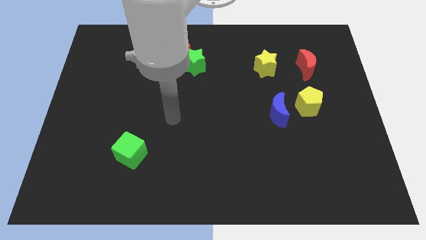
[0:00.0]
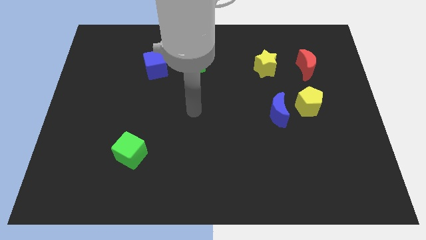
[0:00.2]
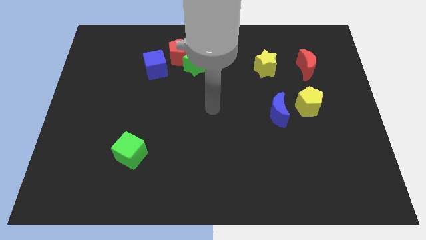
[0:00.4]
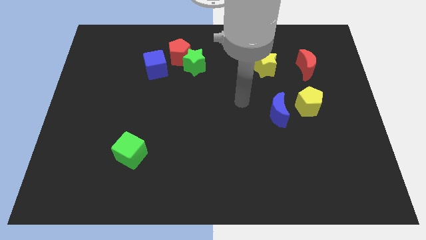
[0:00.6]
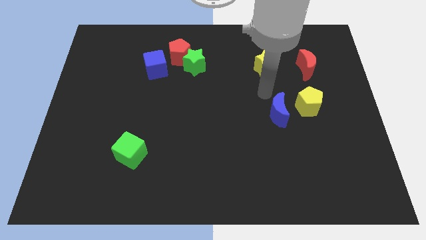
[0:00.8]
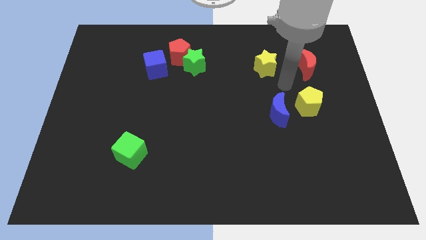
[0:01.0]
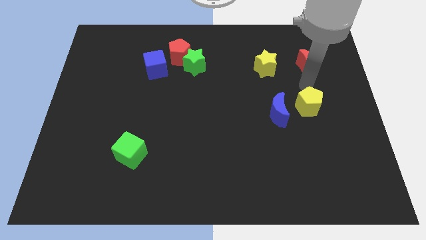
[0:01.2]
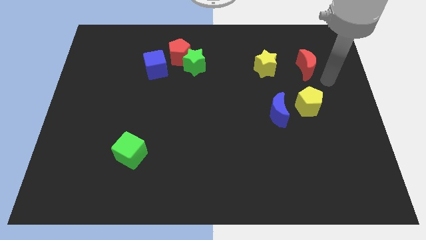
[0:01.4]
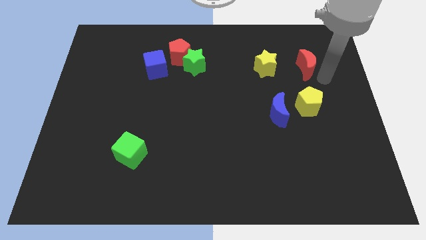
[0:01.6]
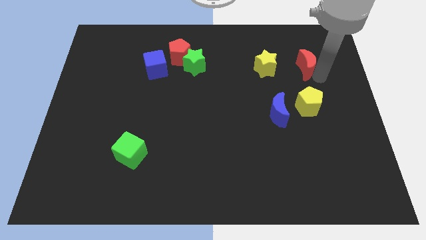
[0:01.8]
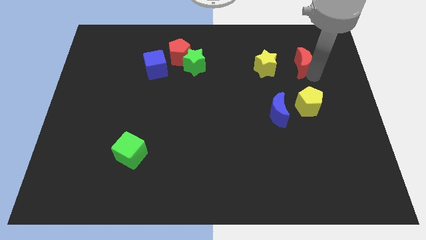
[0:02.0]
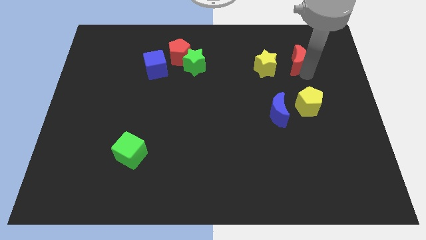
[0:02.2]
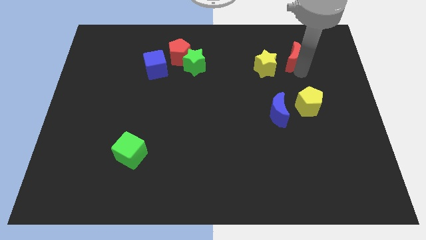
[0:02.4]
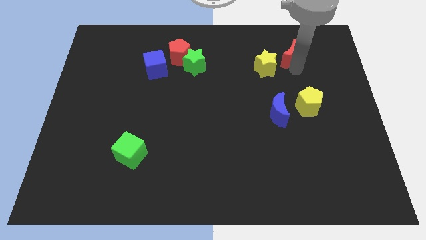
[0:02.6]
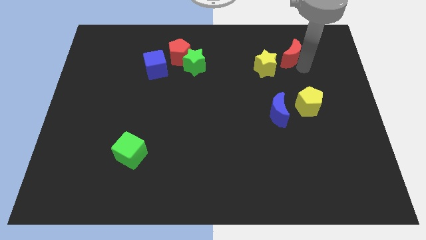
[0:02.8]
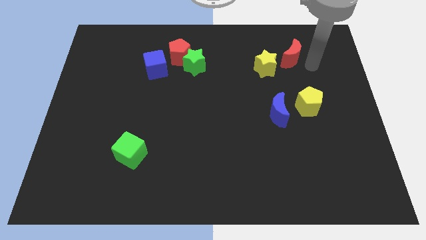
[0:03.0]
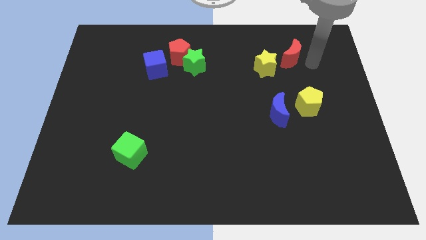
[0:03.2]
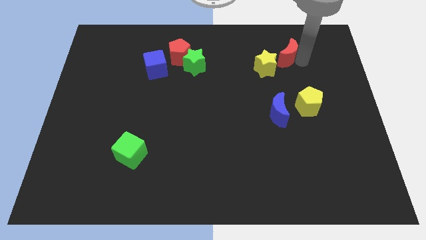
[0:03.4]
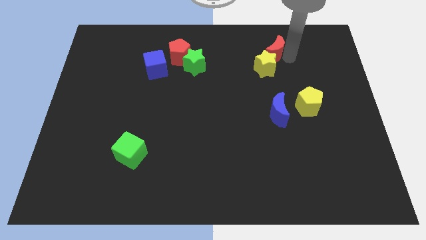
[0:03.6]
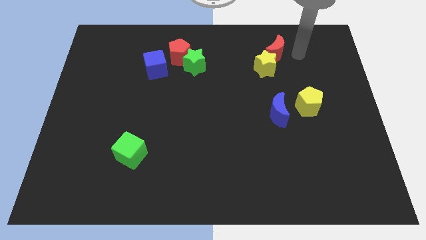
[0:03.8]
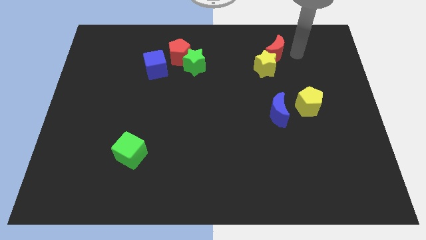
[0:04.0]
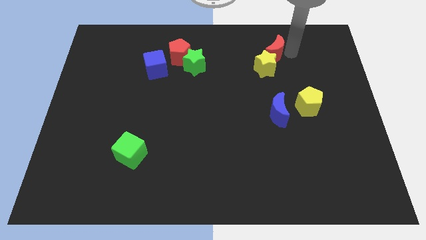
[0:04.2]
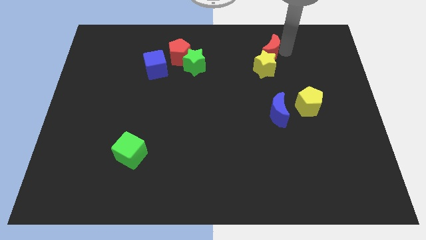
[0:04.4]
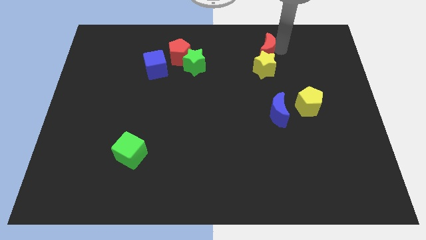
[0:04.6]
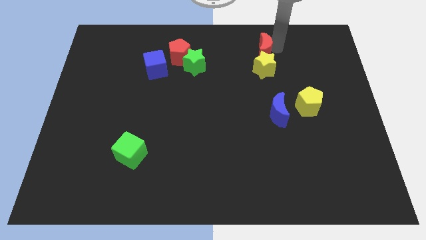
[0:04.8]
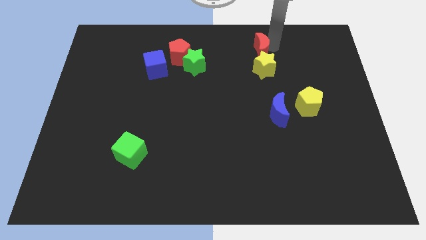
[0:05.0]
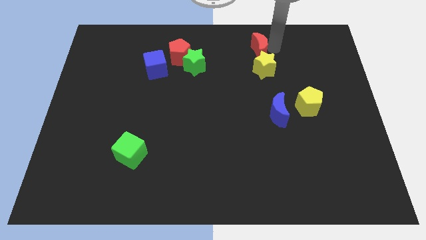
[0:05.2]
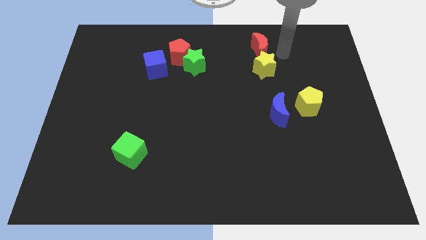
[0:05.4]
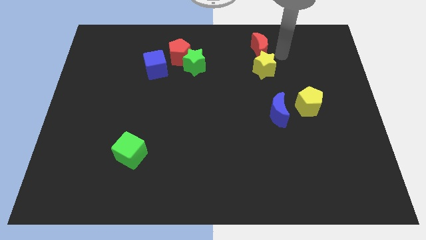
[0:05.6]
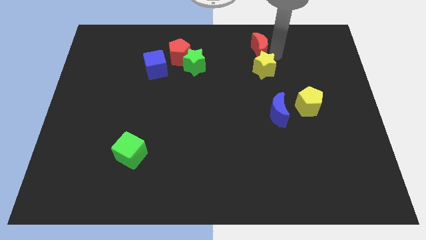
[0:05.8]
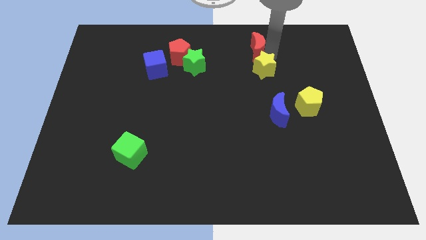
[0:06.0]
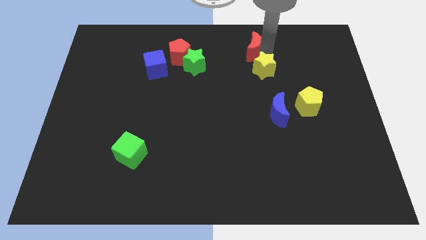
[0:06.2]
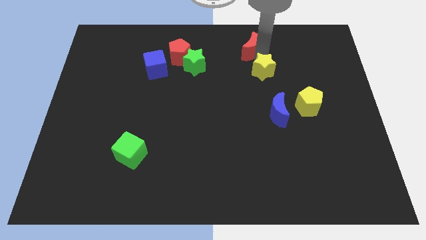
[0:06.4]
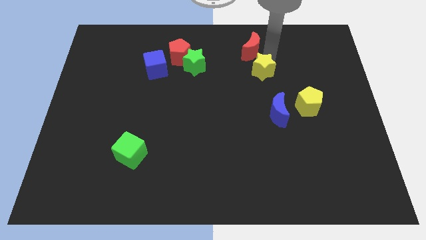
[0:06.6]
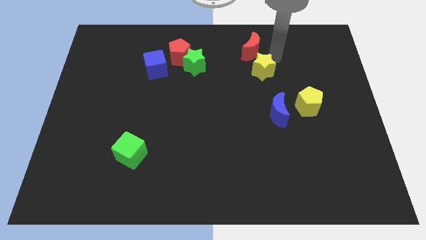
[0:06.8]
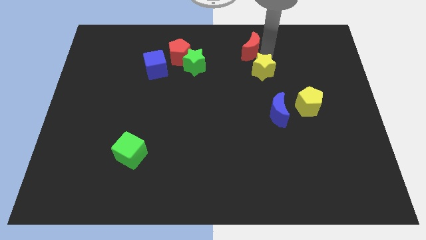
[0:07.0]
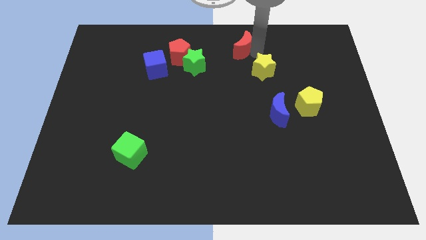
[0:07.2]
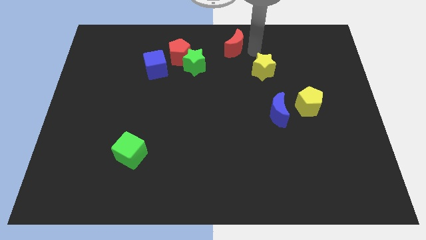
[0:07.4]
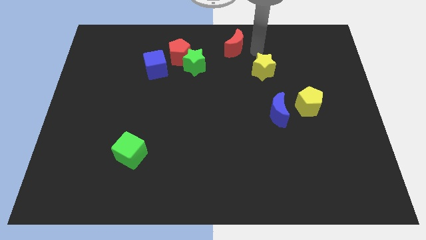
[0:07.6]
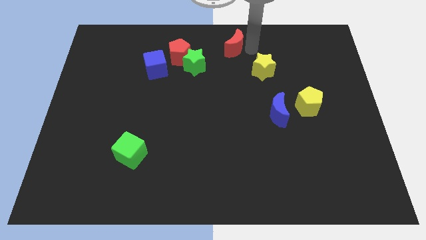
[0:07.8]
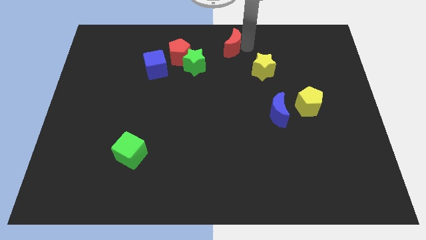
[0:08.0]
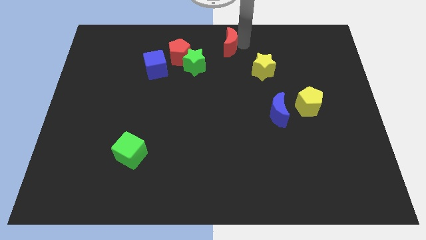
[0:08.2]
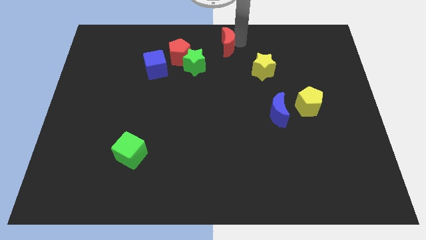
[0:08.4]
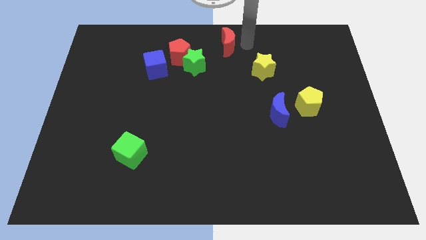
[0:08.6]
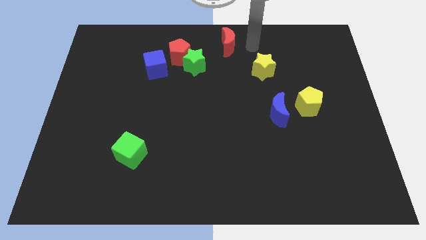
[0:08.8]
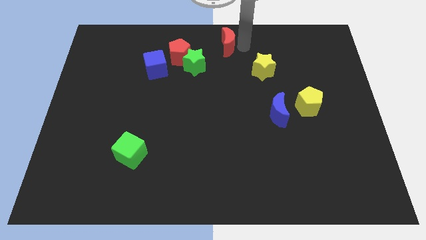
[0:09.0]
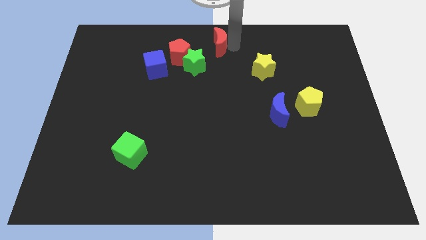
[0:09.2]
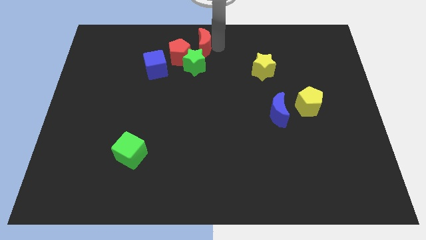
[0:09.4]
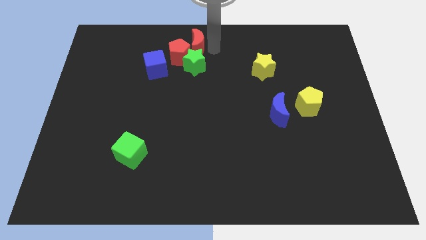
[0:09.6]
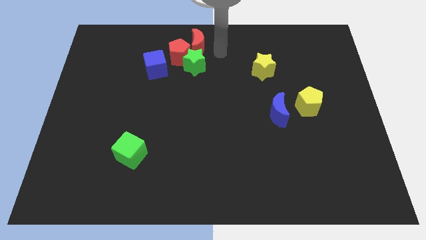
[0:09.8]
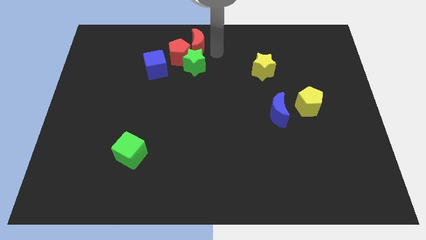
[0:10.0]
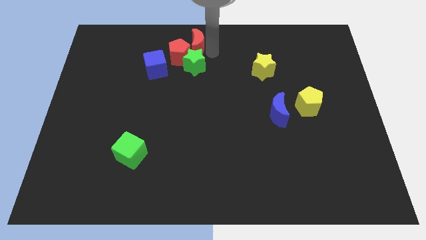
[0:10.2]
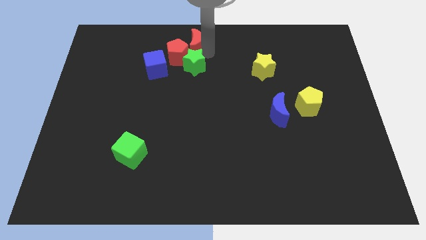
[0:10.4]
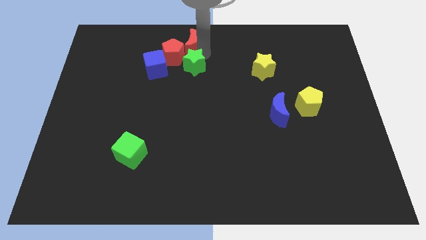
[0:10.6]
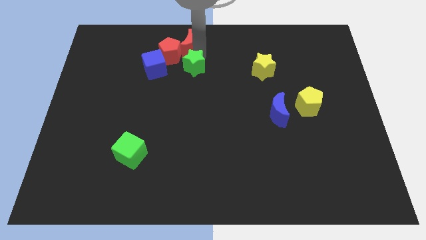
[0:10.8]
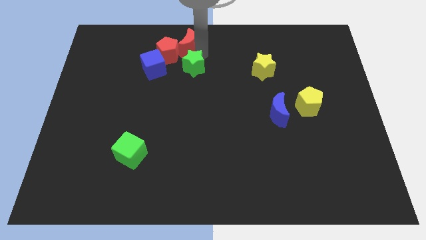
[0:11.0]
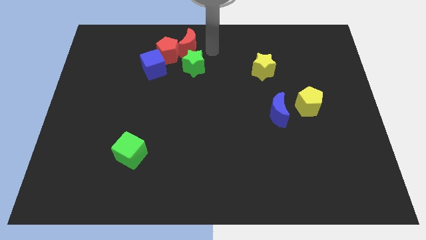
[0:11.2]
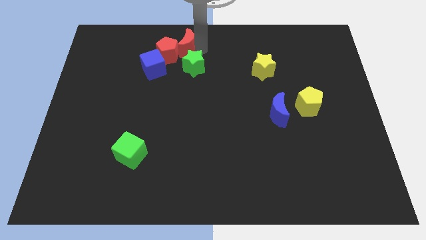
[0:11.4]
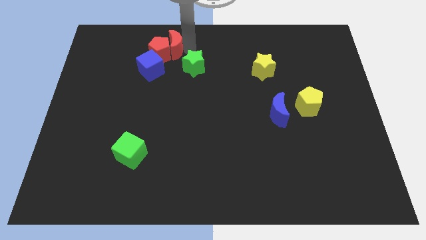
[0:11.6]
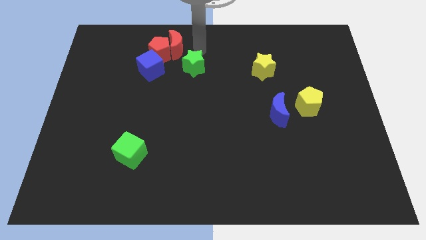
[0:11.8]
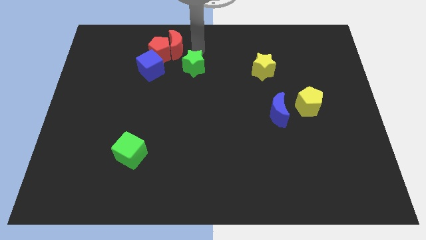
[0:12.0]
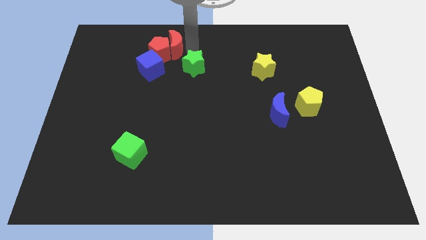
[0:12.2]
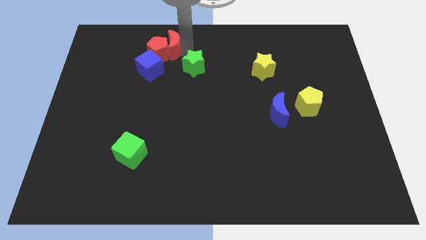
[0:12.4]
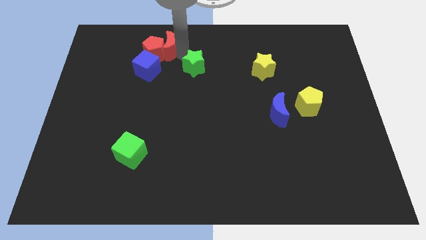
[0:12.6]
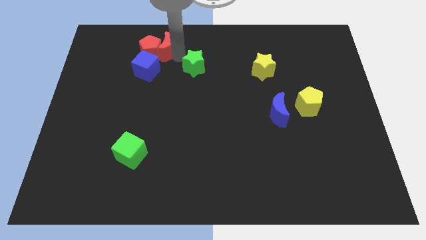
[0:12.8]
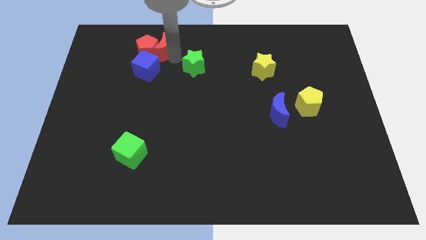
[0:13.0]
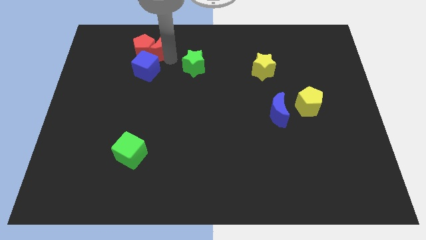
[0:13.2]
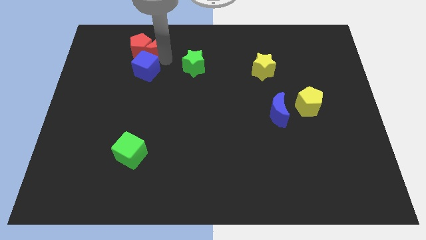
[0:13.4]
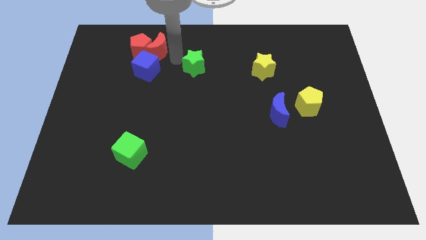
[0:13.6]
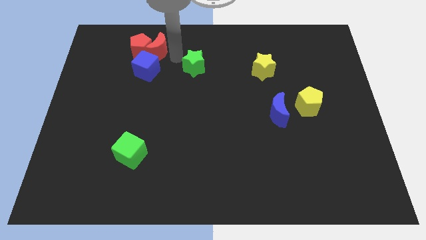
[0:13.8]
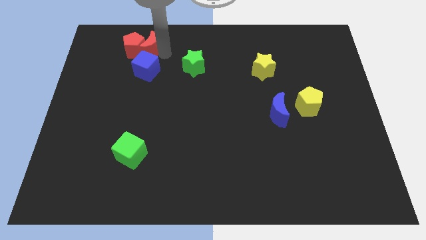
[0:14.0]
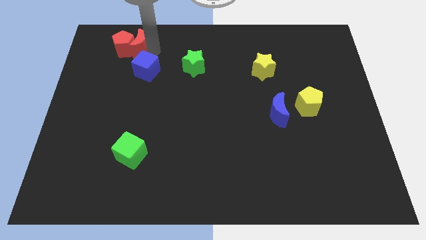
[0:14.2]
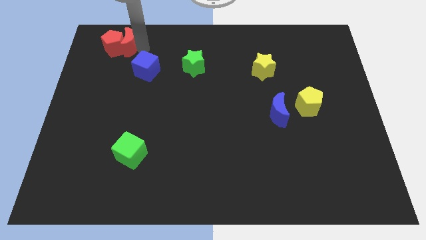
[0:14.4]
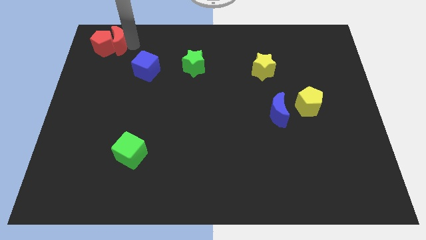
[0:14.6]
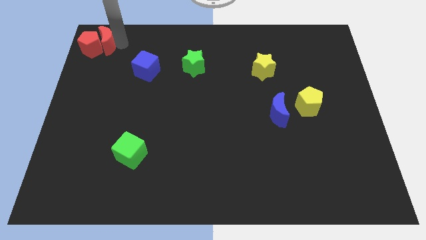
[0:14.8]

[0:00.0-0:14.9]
put the red moon to the upper left corner
